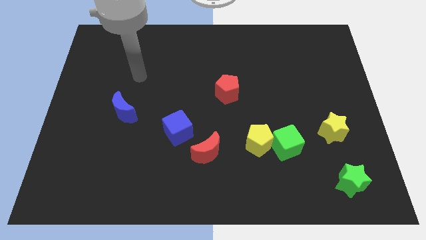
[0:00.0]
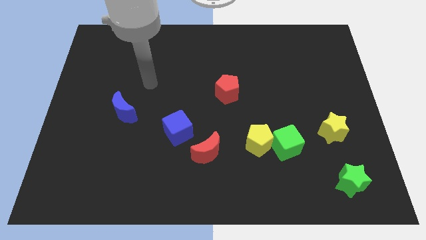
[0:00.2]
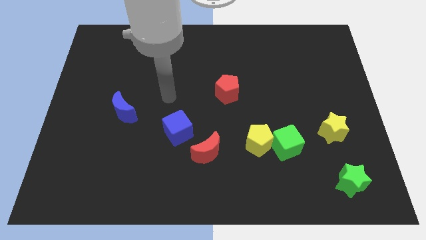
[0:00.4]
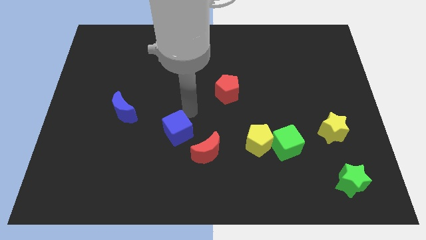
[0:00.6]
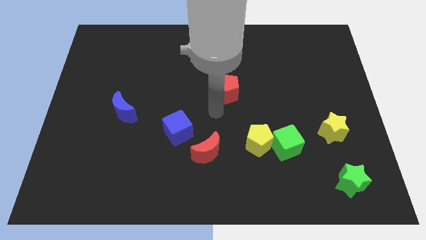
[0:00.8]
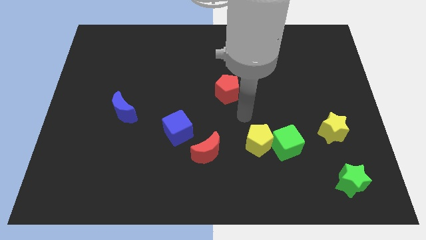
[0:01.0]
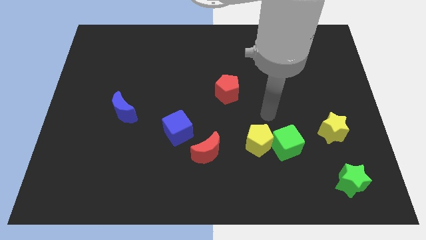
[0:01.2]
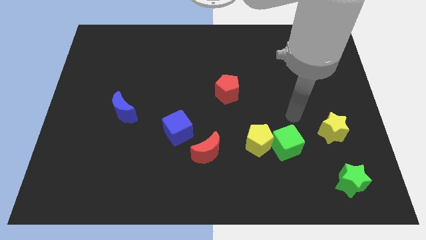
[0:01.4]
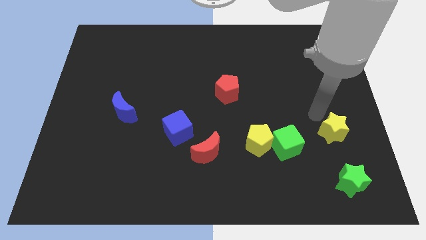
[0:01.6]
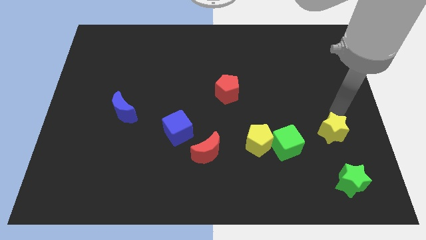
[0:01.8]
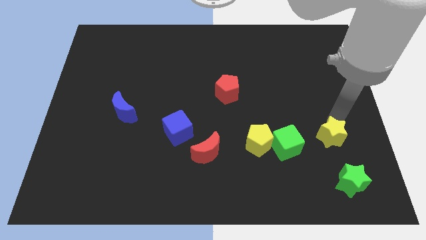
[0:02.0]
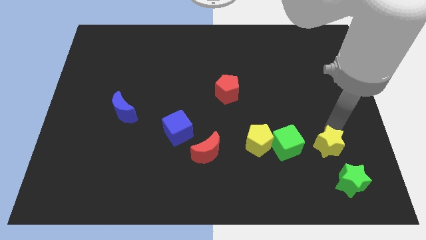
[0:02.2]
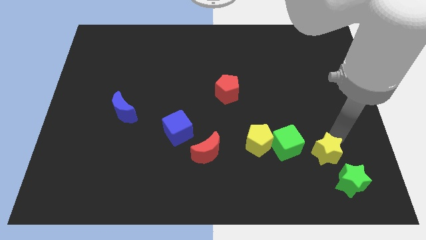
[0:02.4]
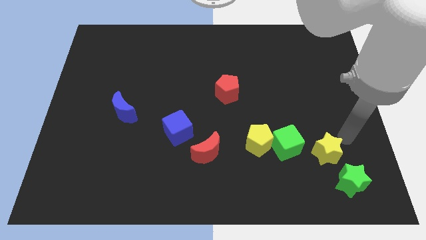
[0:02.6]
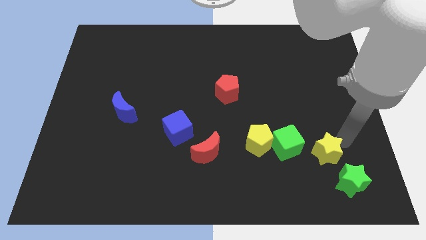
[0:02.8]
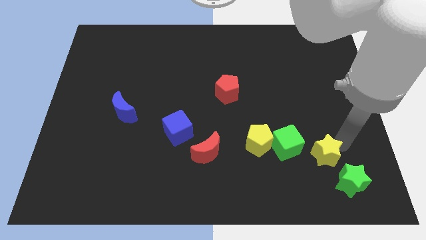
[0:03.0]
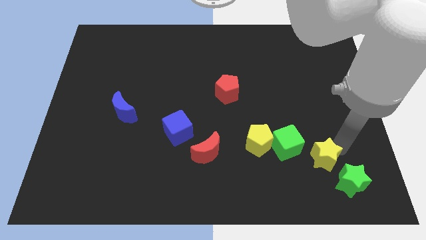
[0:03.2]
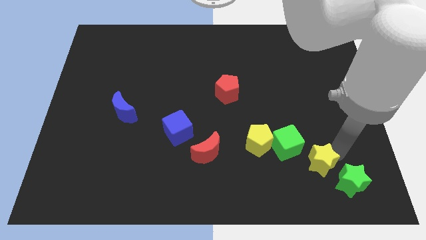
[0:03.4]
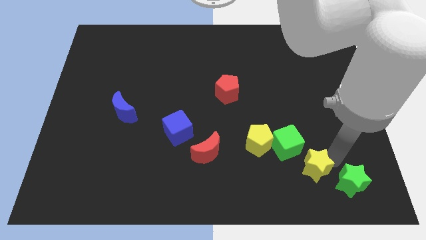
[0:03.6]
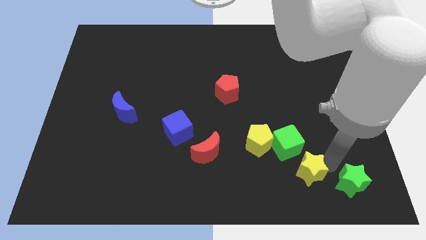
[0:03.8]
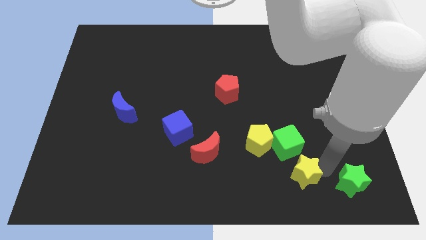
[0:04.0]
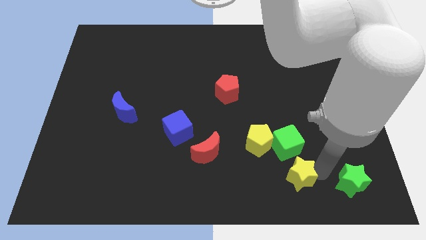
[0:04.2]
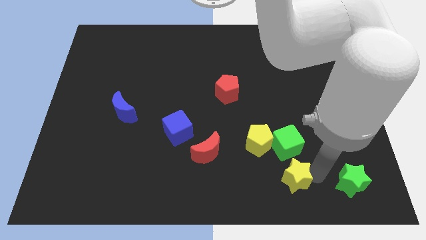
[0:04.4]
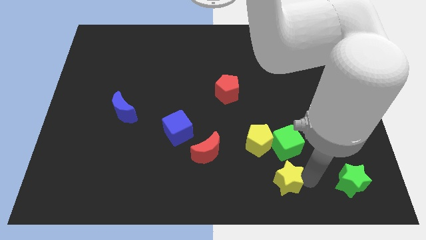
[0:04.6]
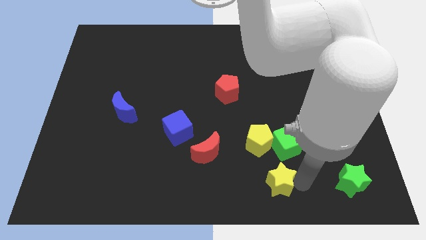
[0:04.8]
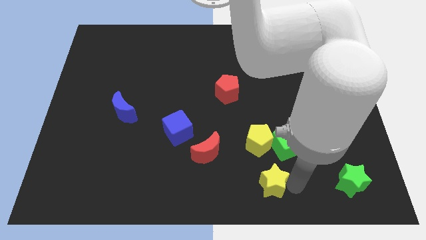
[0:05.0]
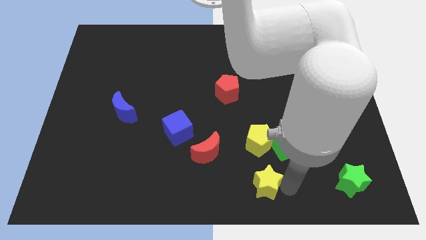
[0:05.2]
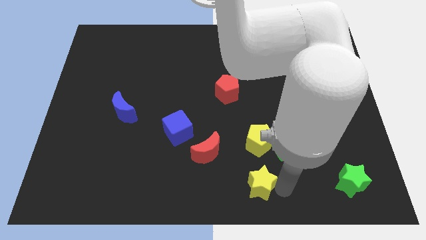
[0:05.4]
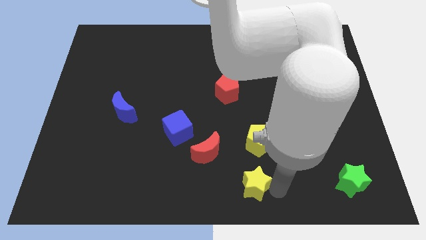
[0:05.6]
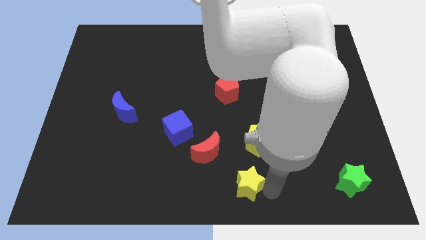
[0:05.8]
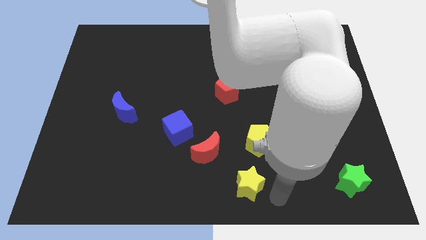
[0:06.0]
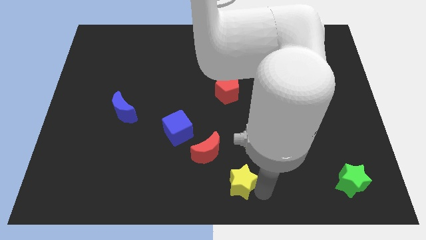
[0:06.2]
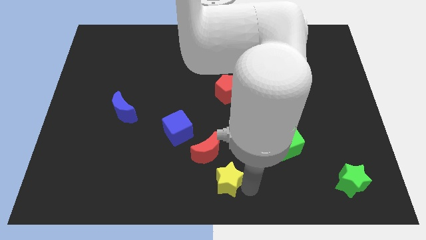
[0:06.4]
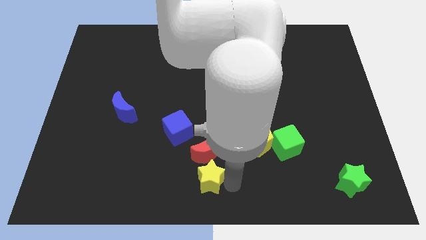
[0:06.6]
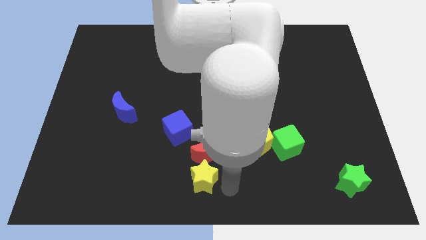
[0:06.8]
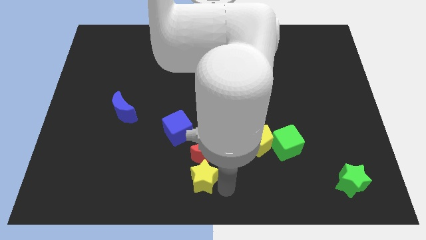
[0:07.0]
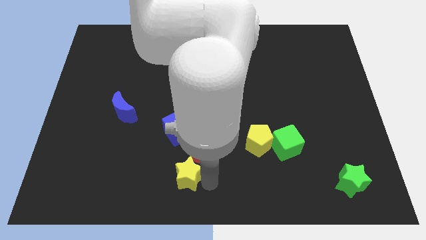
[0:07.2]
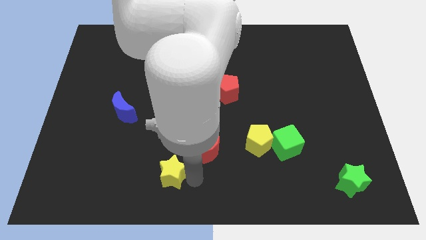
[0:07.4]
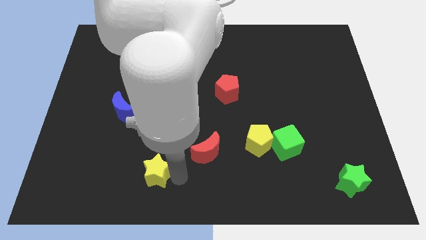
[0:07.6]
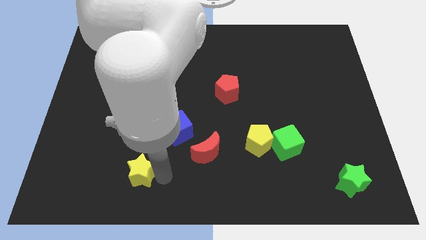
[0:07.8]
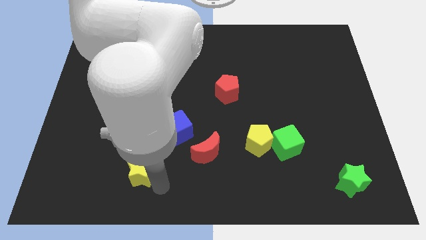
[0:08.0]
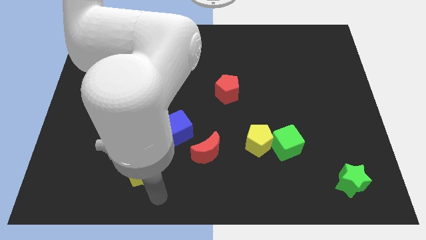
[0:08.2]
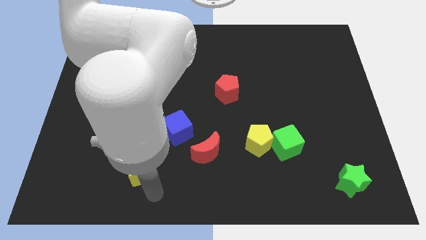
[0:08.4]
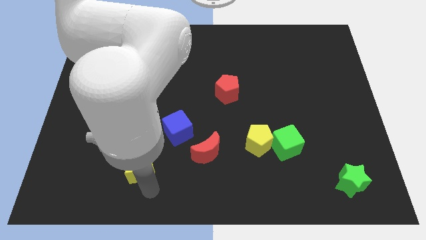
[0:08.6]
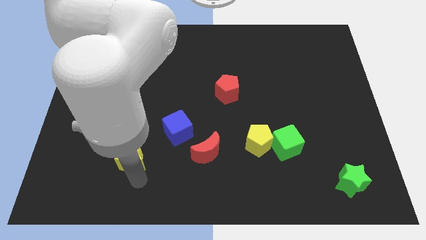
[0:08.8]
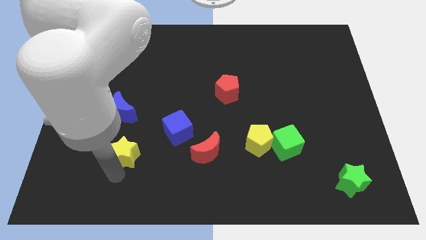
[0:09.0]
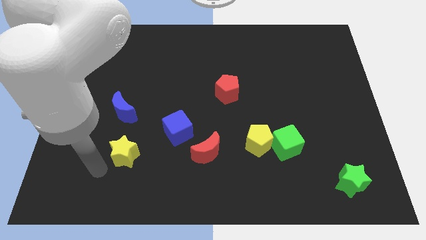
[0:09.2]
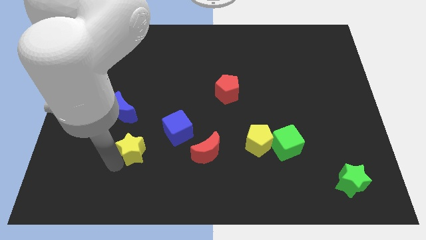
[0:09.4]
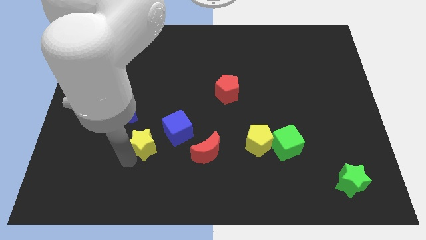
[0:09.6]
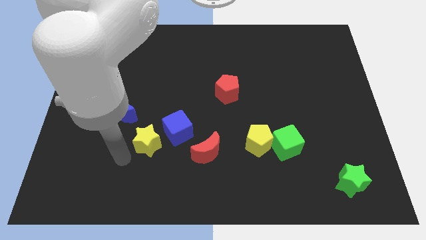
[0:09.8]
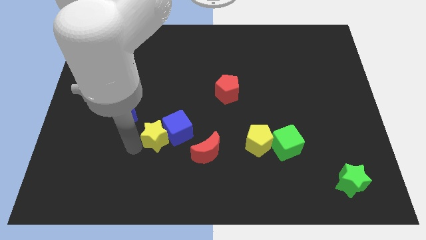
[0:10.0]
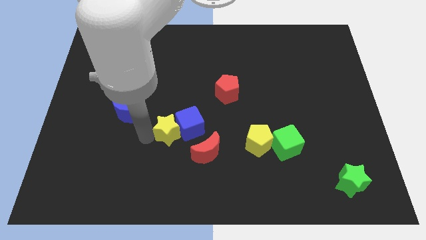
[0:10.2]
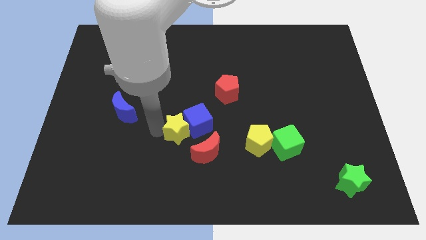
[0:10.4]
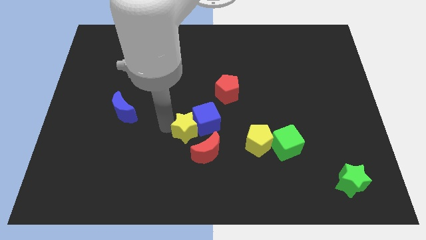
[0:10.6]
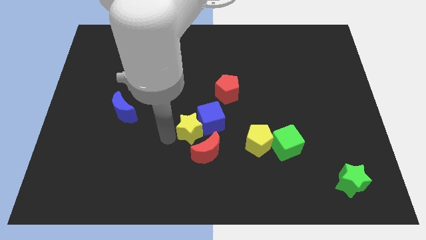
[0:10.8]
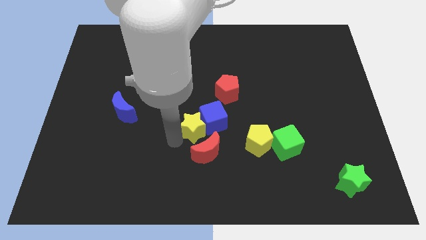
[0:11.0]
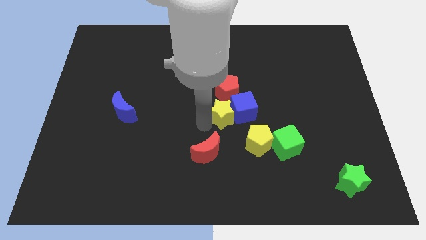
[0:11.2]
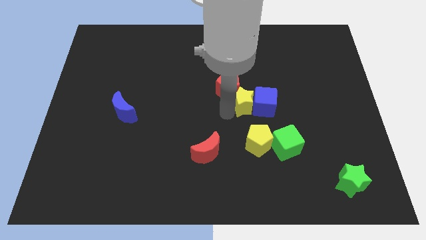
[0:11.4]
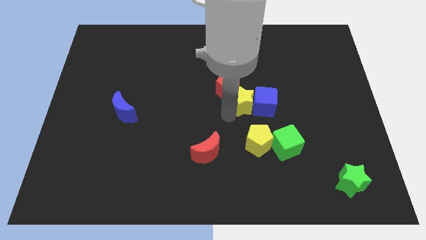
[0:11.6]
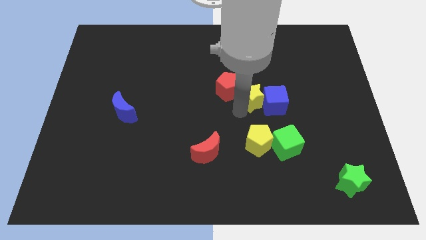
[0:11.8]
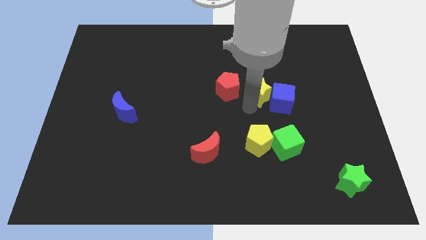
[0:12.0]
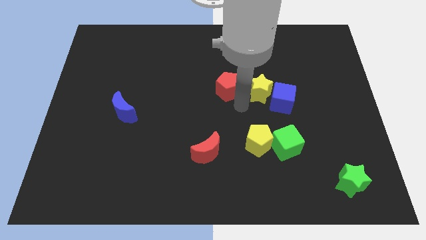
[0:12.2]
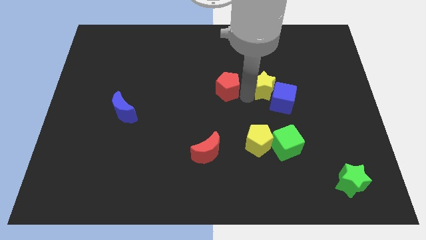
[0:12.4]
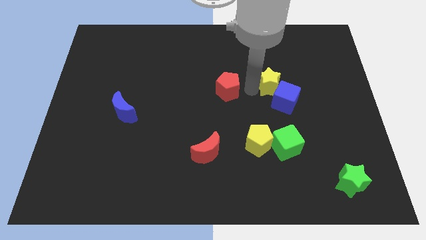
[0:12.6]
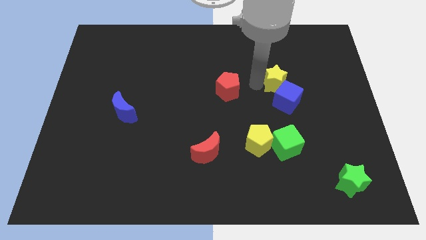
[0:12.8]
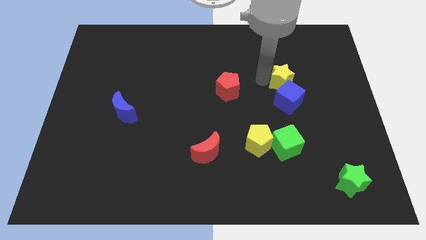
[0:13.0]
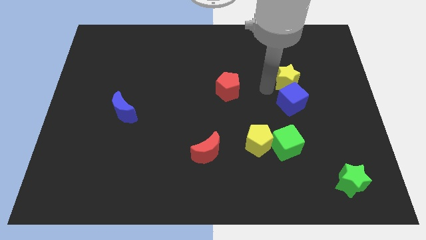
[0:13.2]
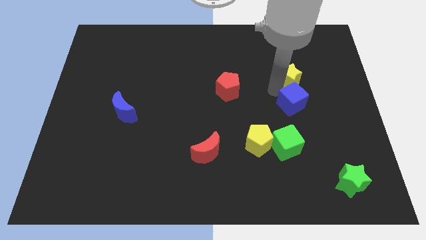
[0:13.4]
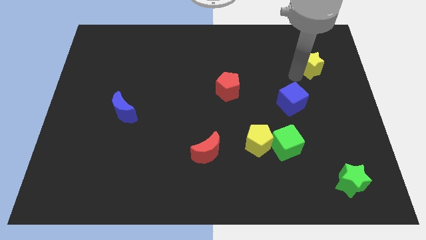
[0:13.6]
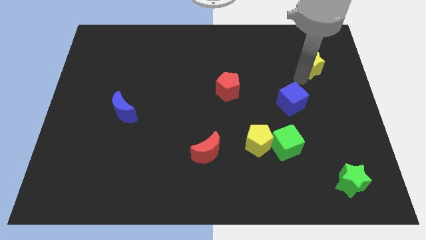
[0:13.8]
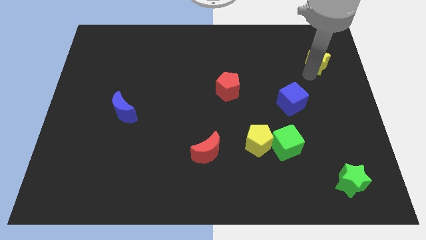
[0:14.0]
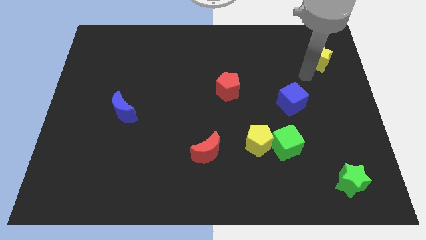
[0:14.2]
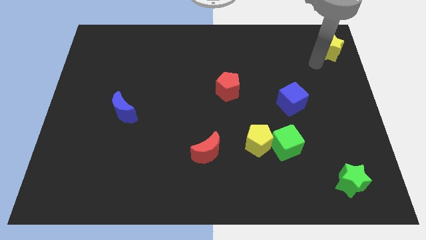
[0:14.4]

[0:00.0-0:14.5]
slide the yellow star to the top right corner
